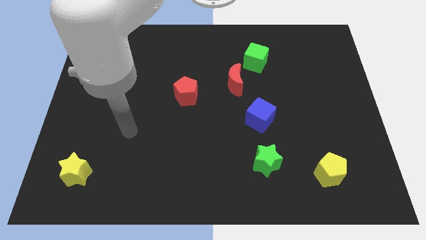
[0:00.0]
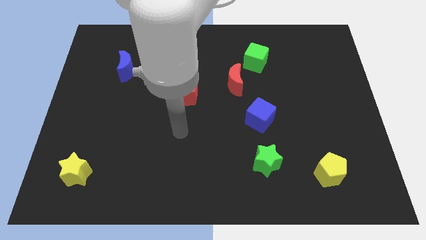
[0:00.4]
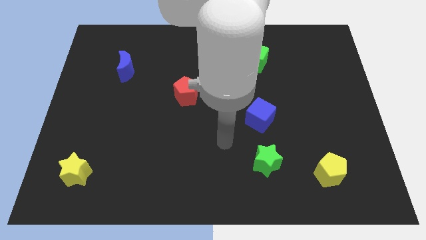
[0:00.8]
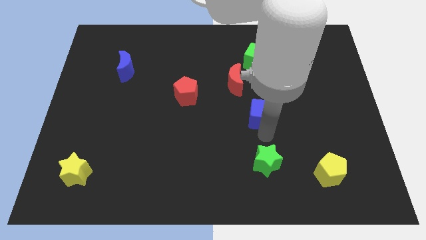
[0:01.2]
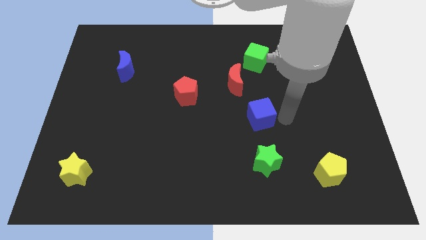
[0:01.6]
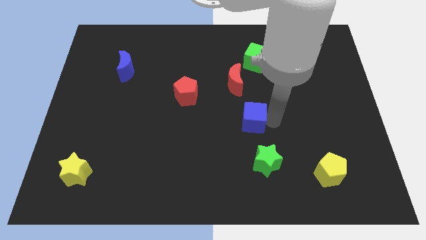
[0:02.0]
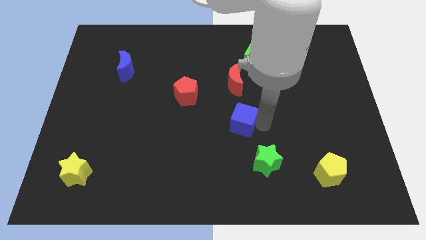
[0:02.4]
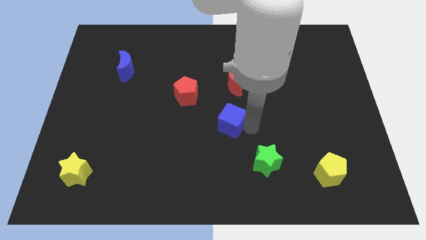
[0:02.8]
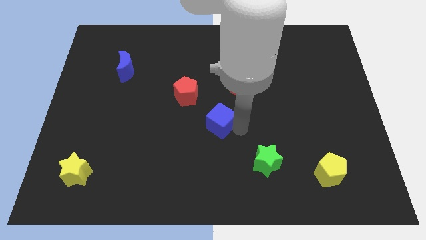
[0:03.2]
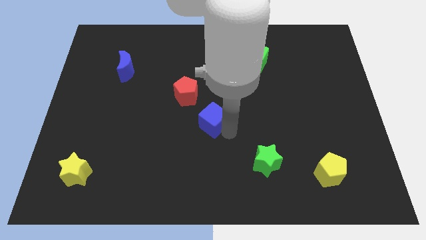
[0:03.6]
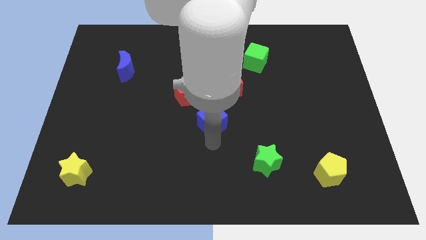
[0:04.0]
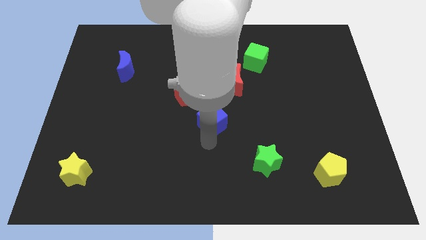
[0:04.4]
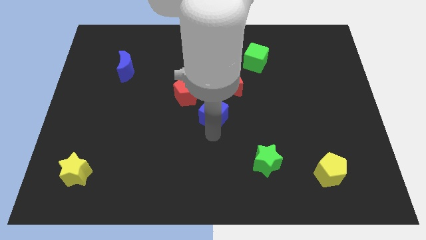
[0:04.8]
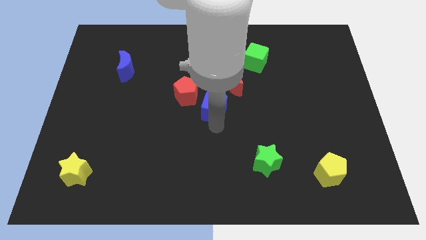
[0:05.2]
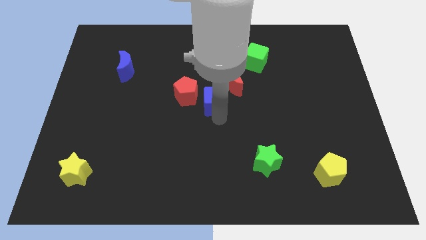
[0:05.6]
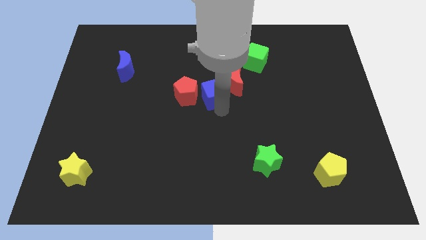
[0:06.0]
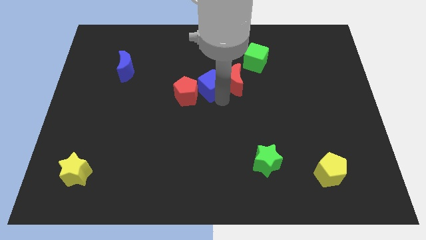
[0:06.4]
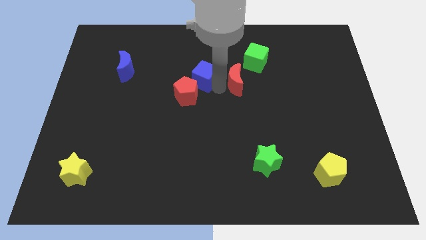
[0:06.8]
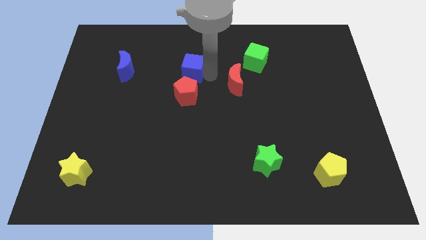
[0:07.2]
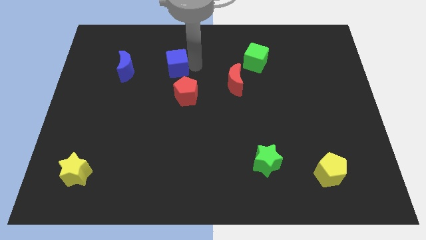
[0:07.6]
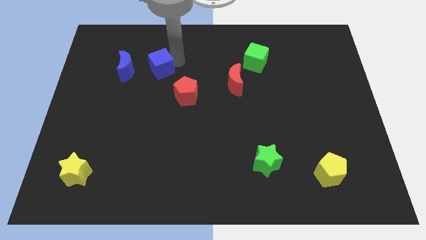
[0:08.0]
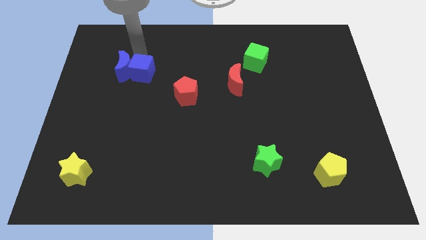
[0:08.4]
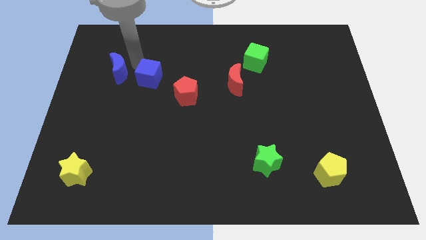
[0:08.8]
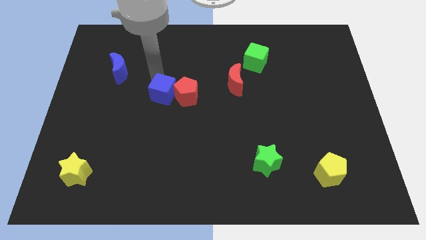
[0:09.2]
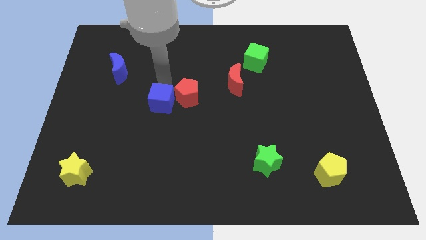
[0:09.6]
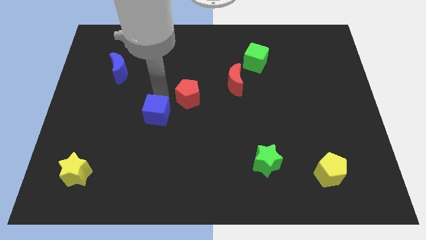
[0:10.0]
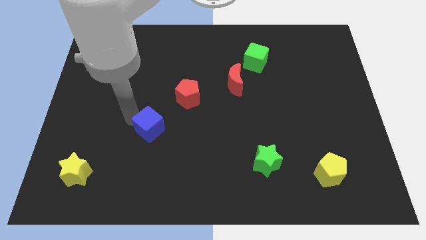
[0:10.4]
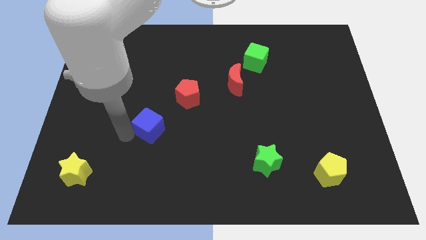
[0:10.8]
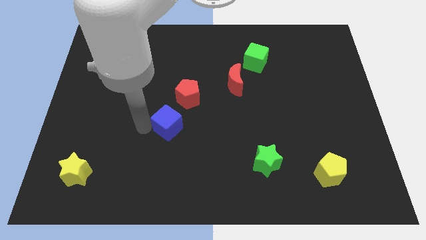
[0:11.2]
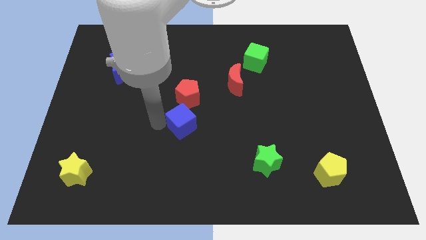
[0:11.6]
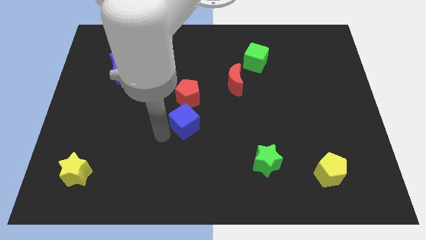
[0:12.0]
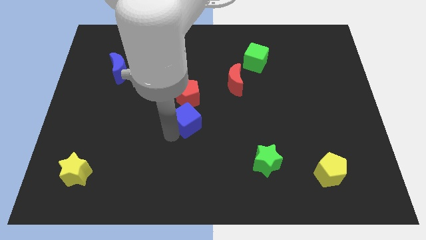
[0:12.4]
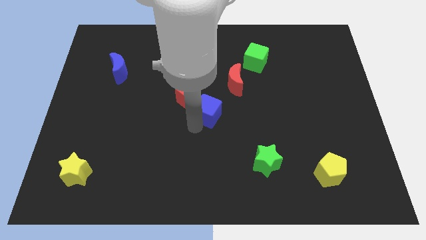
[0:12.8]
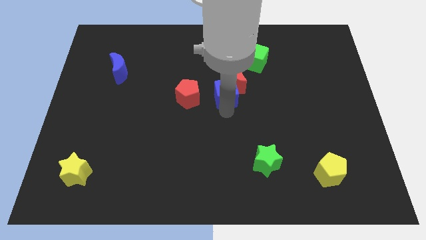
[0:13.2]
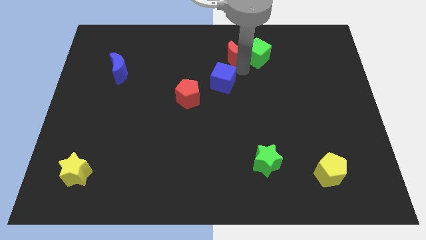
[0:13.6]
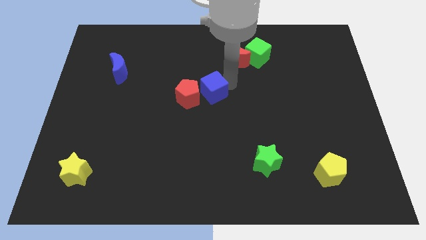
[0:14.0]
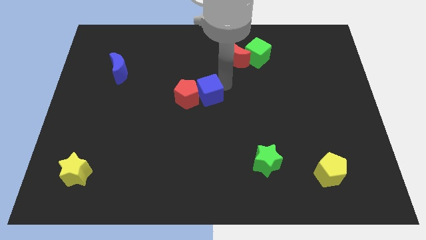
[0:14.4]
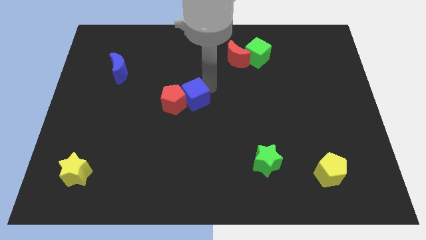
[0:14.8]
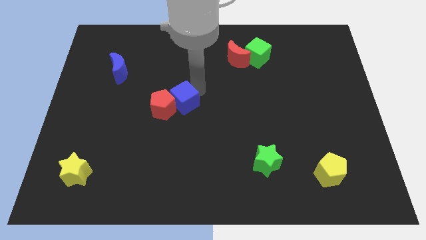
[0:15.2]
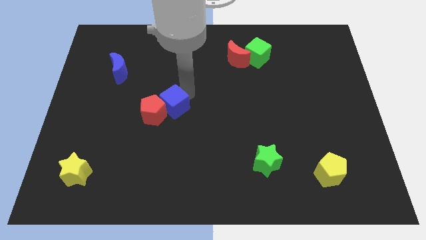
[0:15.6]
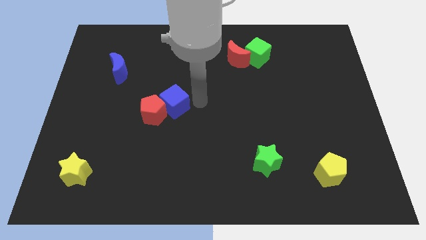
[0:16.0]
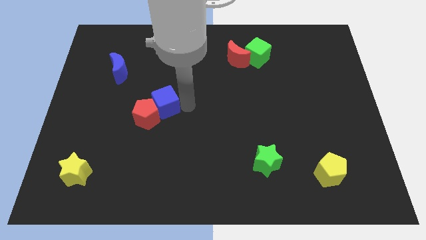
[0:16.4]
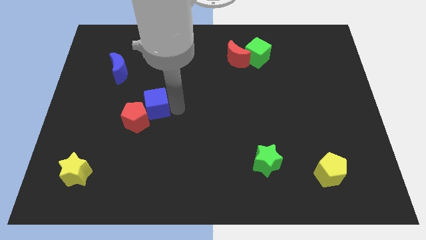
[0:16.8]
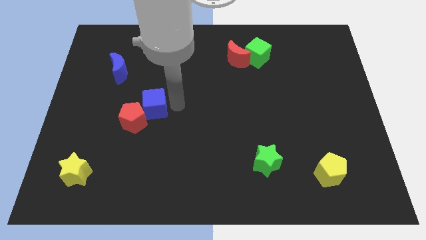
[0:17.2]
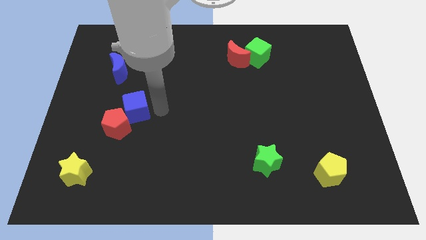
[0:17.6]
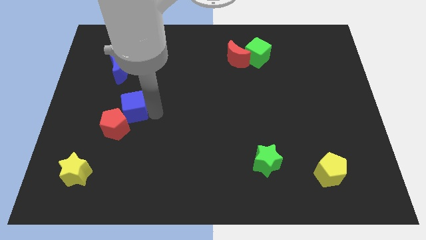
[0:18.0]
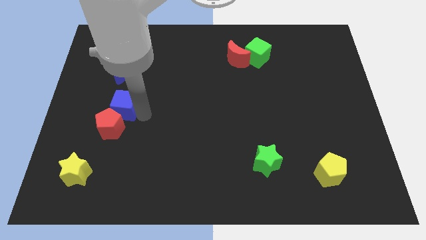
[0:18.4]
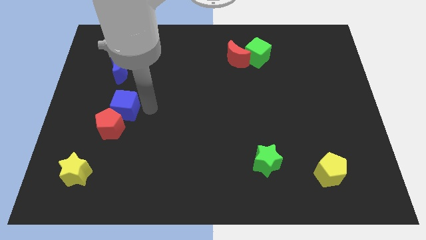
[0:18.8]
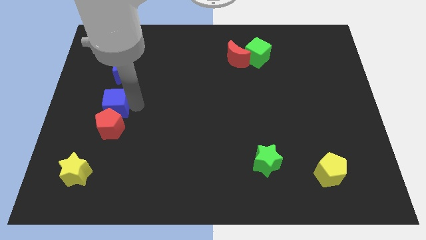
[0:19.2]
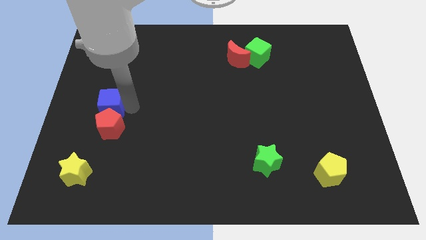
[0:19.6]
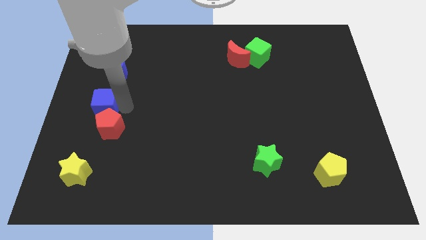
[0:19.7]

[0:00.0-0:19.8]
move the blue cube to the left side

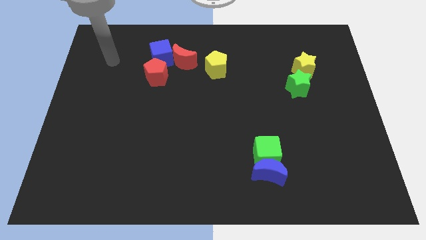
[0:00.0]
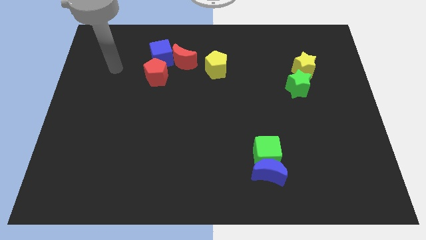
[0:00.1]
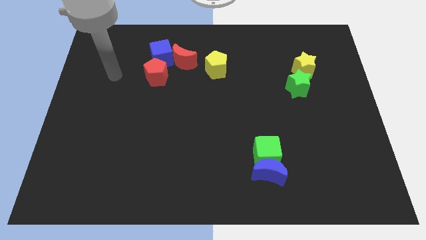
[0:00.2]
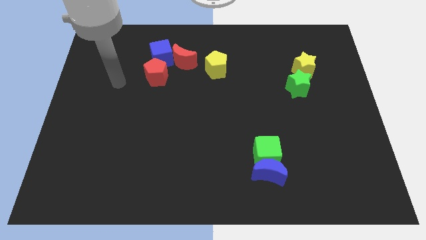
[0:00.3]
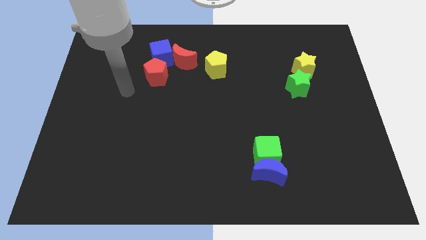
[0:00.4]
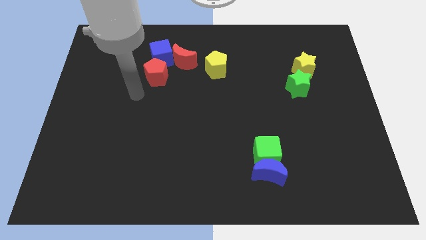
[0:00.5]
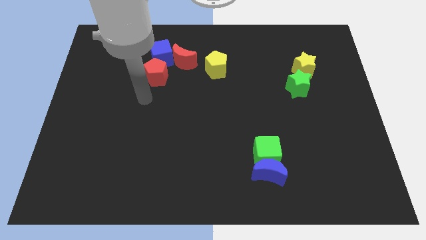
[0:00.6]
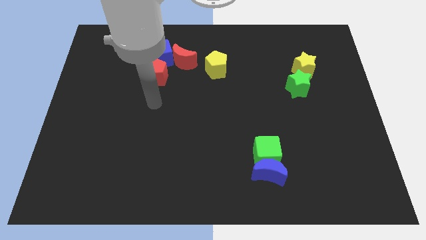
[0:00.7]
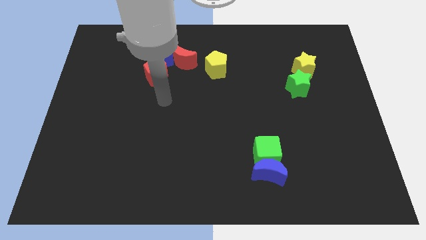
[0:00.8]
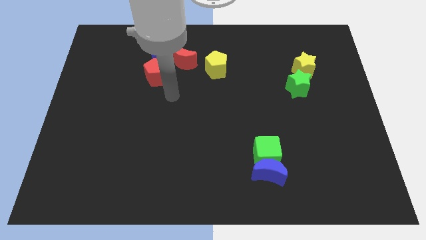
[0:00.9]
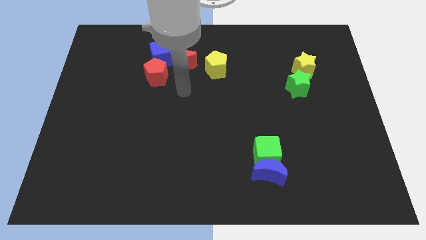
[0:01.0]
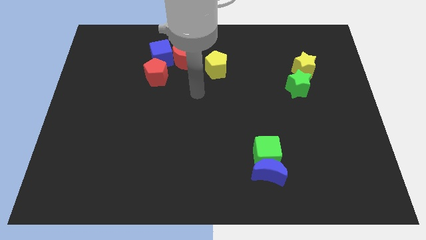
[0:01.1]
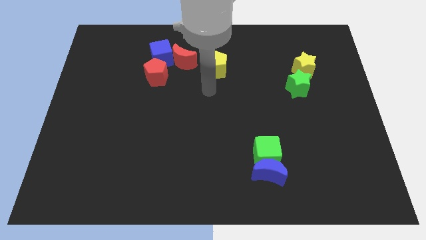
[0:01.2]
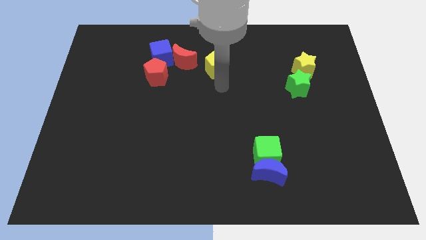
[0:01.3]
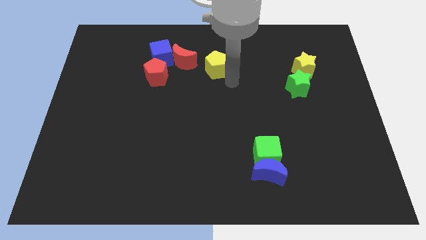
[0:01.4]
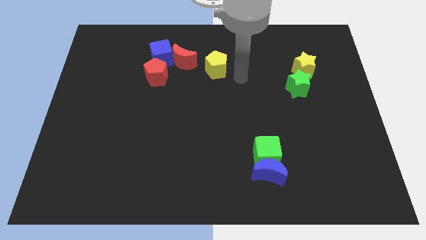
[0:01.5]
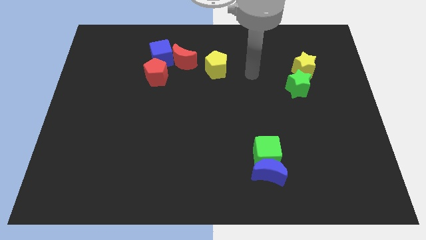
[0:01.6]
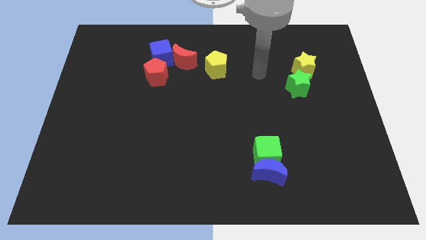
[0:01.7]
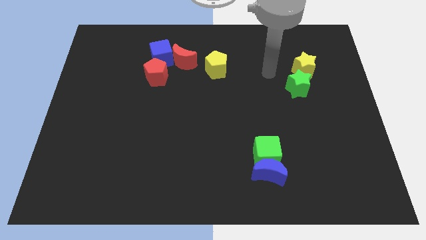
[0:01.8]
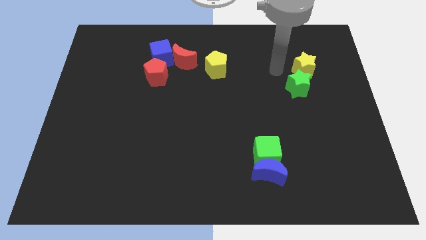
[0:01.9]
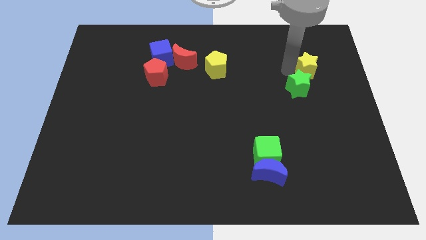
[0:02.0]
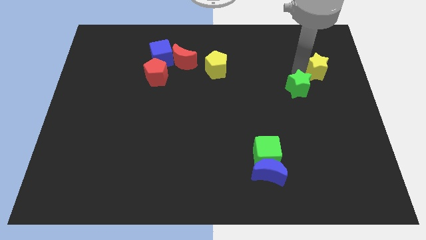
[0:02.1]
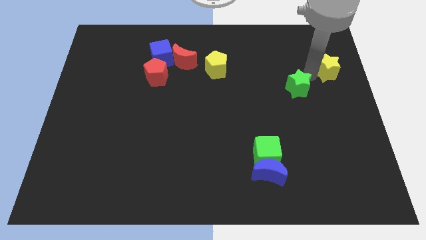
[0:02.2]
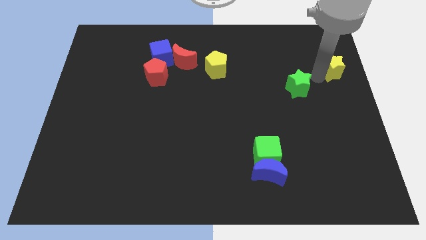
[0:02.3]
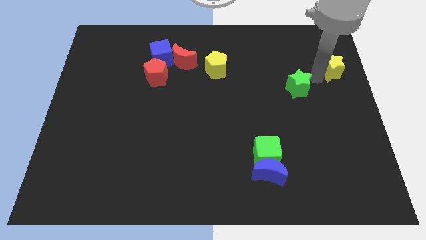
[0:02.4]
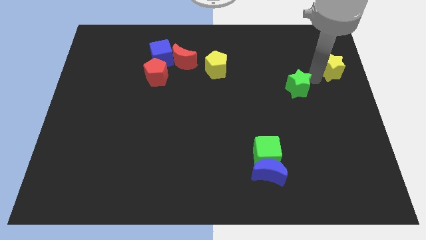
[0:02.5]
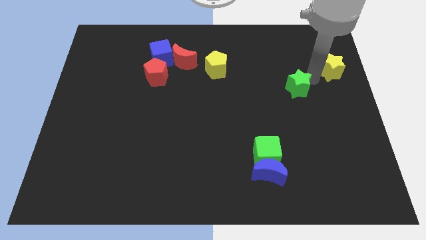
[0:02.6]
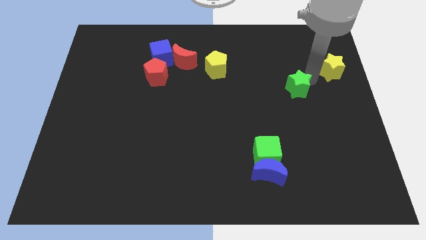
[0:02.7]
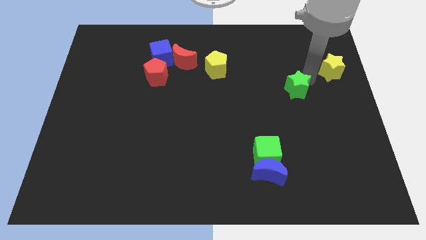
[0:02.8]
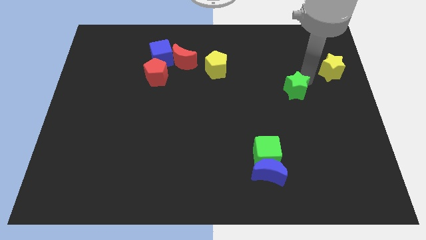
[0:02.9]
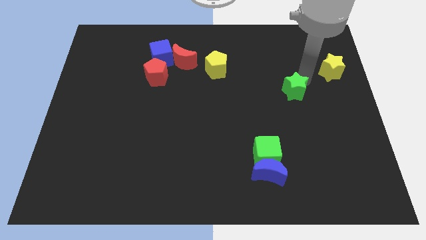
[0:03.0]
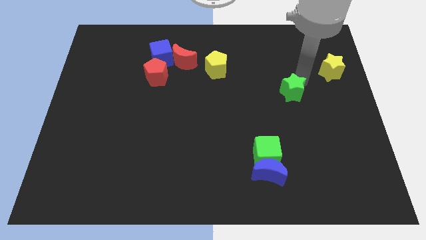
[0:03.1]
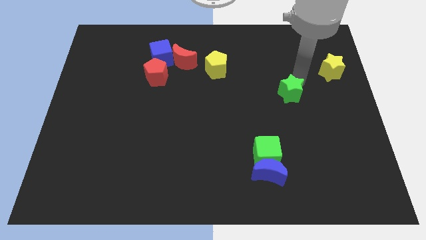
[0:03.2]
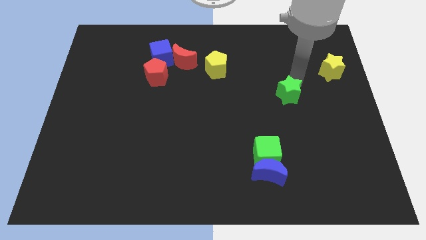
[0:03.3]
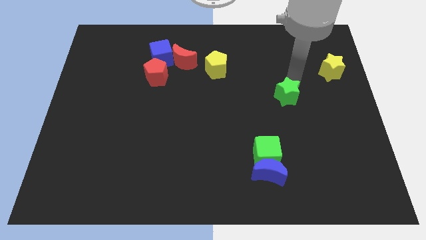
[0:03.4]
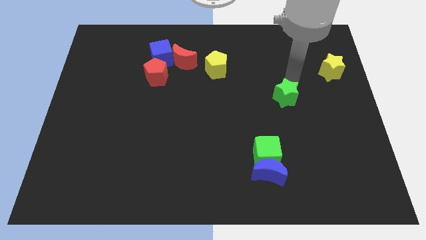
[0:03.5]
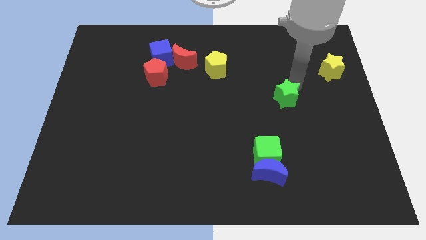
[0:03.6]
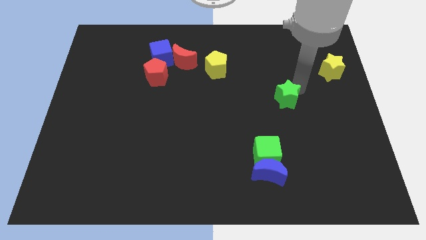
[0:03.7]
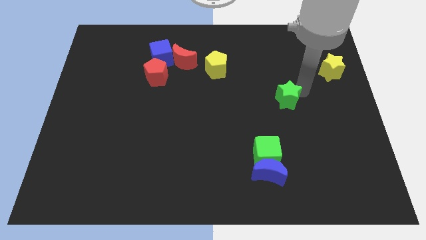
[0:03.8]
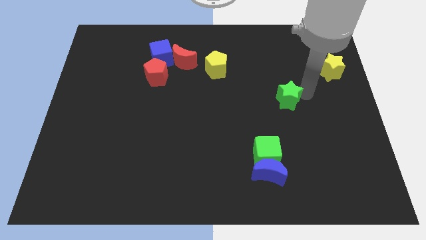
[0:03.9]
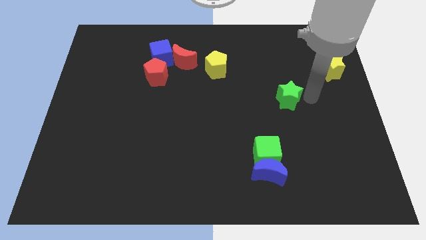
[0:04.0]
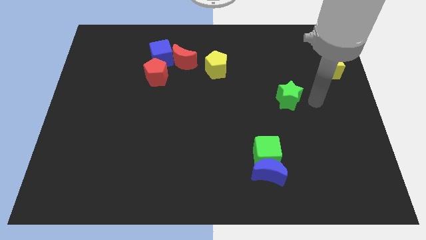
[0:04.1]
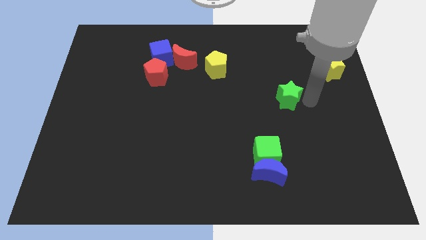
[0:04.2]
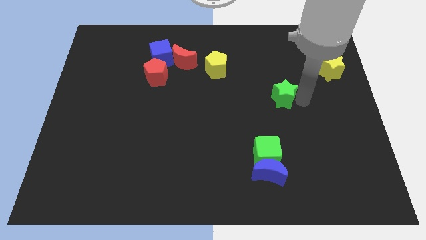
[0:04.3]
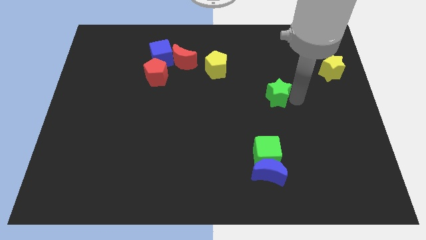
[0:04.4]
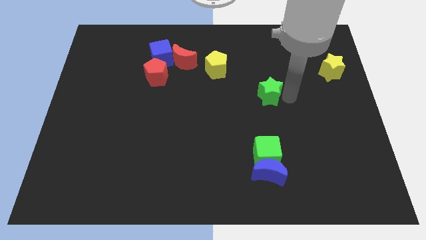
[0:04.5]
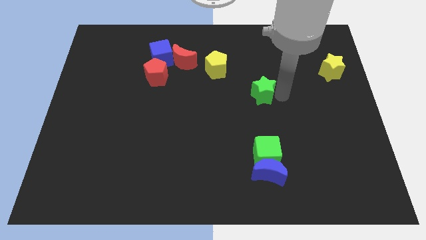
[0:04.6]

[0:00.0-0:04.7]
push the green star to the middle
